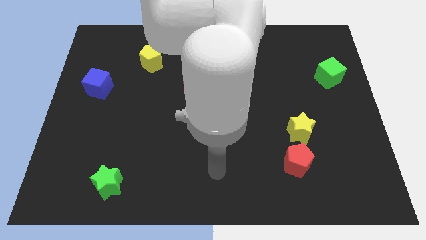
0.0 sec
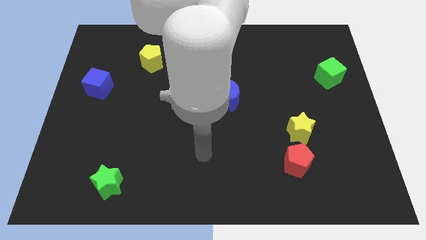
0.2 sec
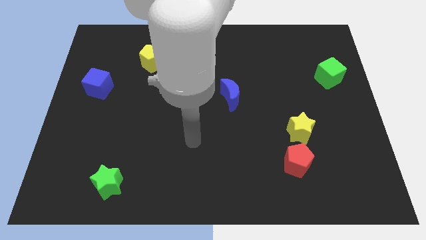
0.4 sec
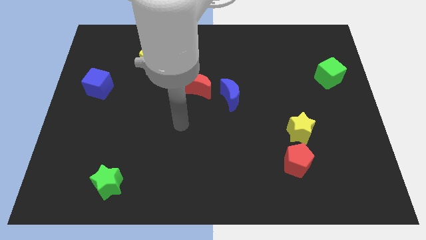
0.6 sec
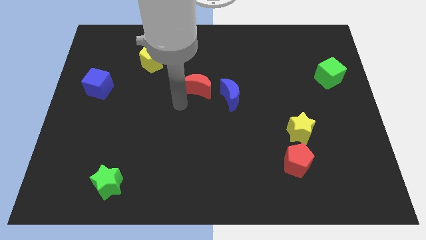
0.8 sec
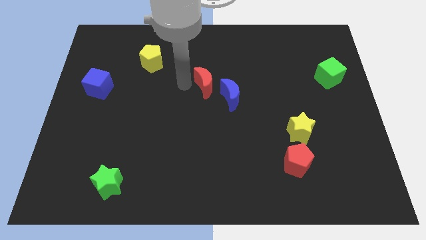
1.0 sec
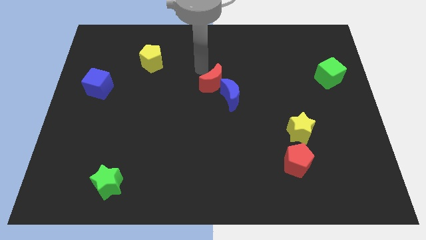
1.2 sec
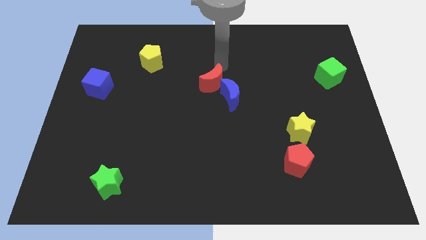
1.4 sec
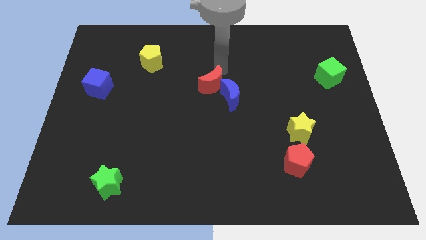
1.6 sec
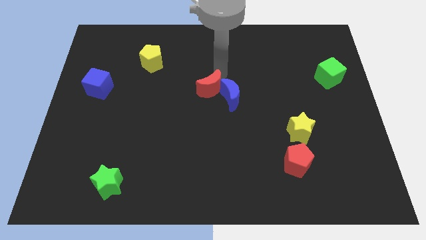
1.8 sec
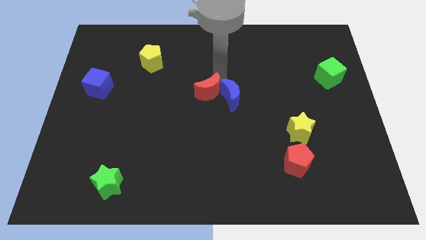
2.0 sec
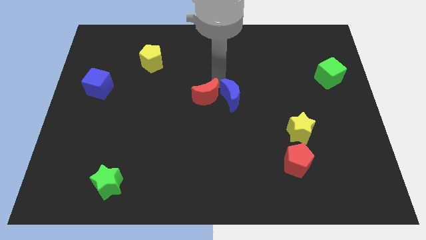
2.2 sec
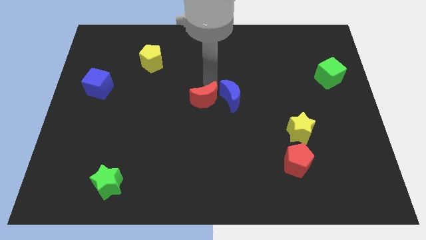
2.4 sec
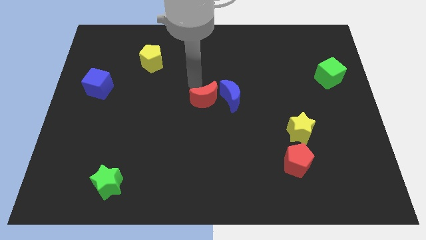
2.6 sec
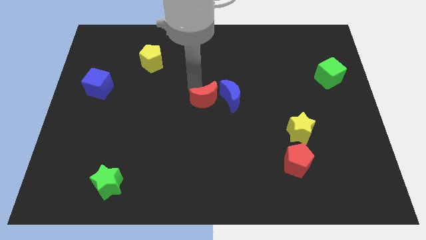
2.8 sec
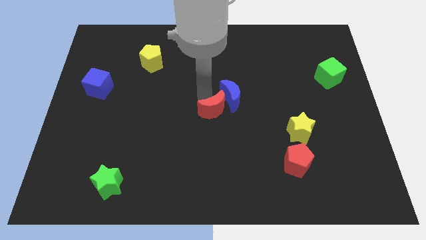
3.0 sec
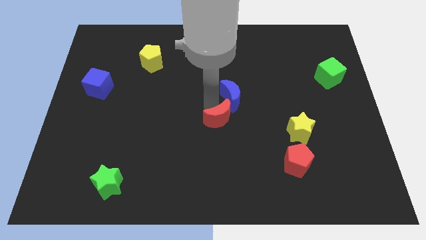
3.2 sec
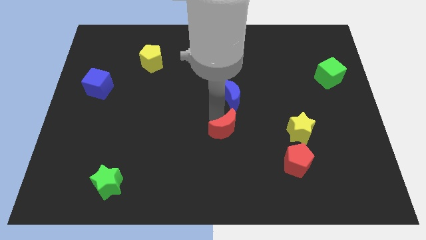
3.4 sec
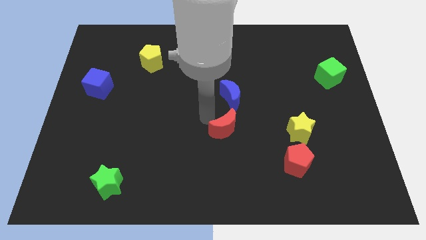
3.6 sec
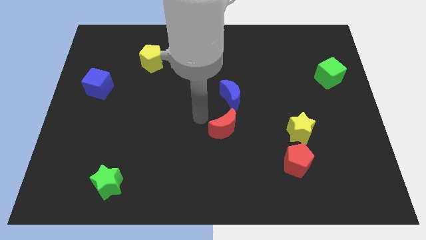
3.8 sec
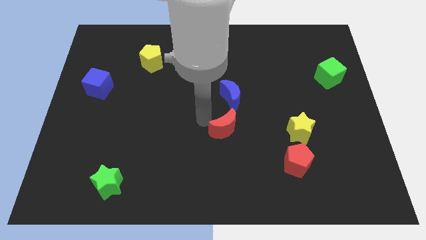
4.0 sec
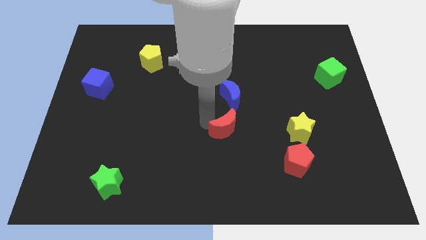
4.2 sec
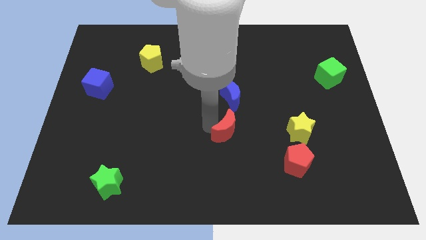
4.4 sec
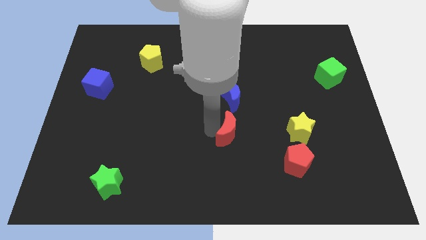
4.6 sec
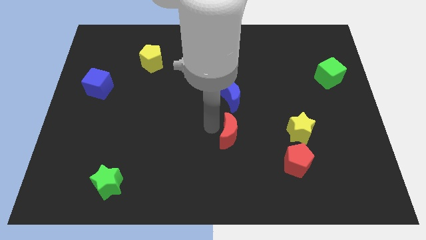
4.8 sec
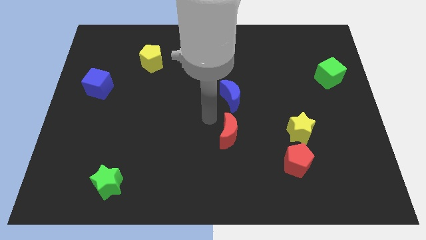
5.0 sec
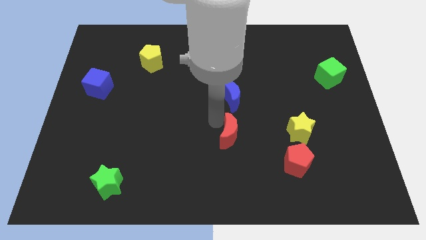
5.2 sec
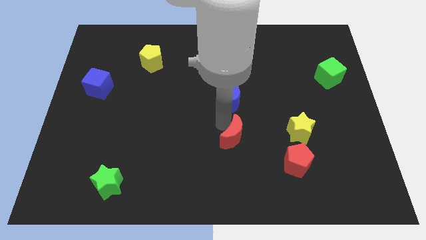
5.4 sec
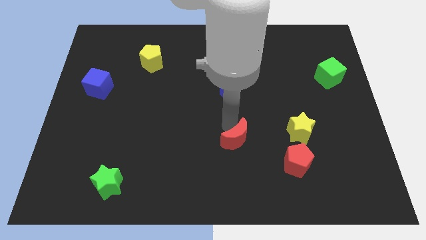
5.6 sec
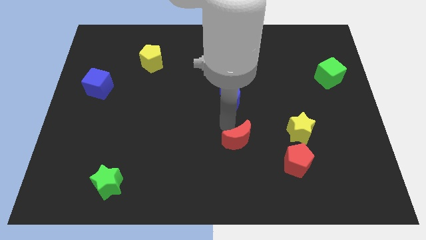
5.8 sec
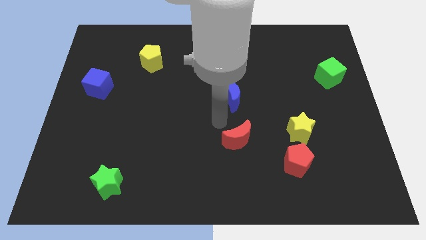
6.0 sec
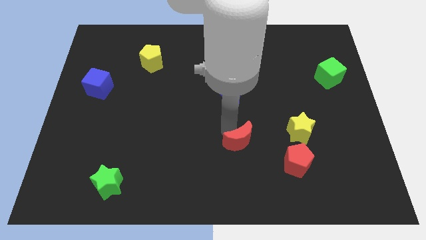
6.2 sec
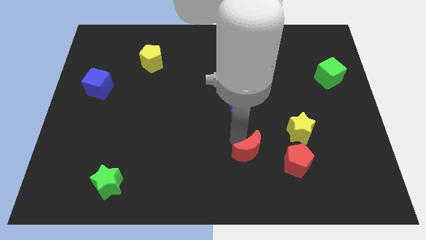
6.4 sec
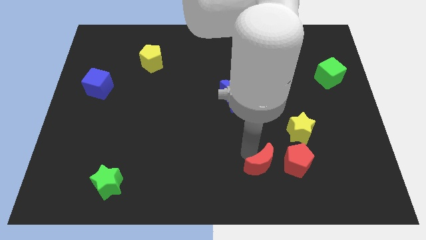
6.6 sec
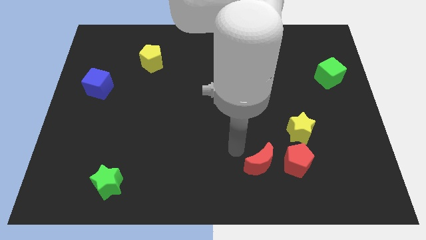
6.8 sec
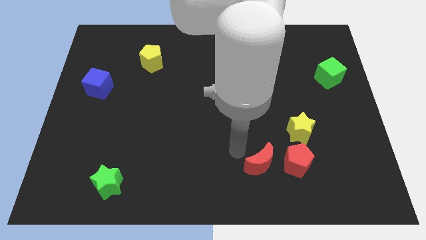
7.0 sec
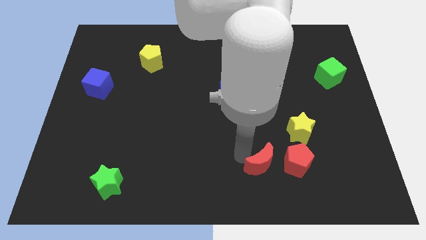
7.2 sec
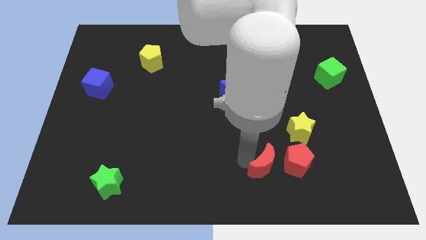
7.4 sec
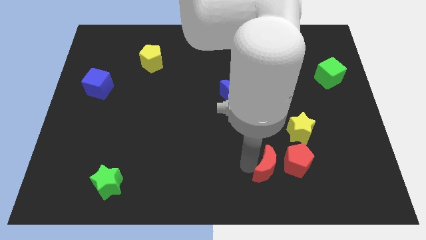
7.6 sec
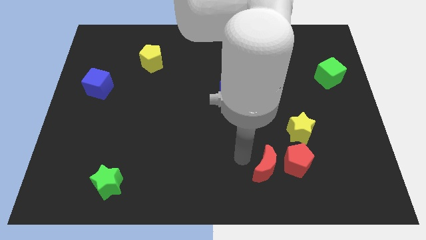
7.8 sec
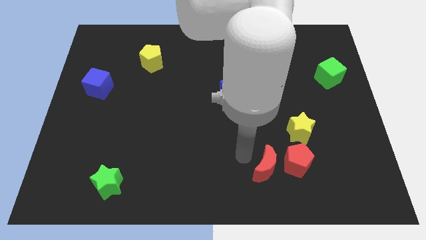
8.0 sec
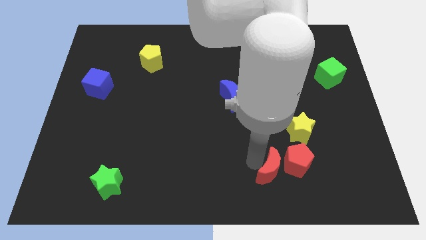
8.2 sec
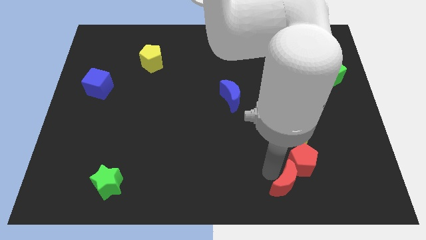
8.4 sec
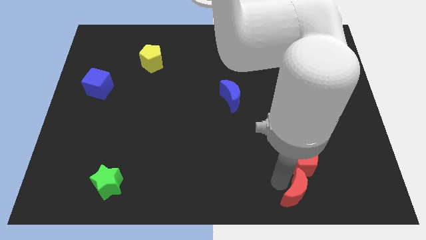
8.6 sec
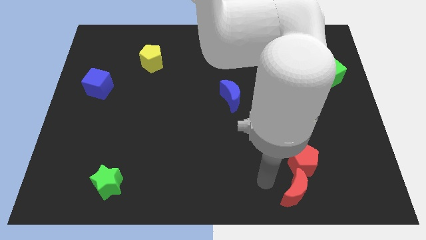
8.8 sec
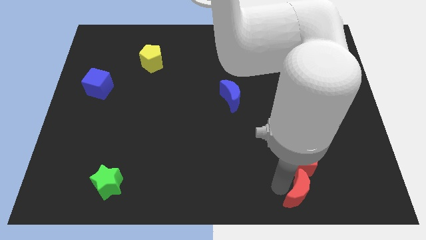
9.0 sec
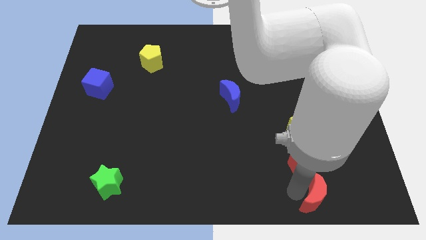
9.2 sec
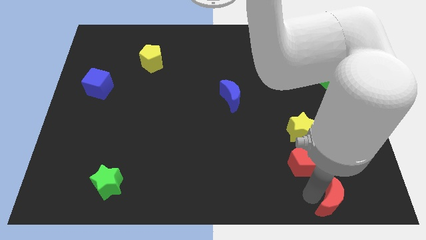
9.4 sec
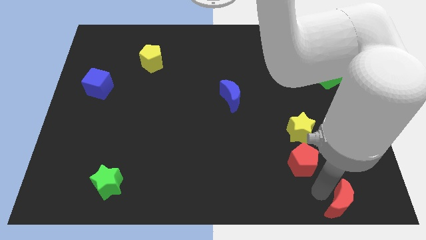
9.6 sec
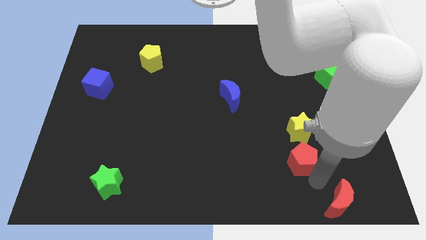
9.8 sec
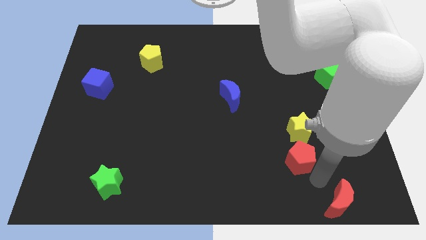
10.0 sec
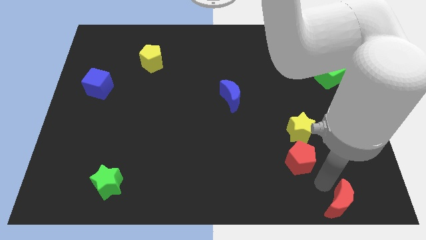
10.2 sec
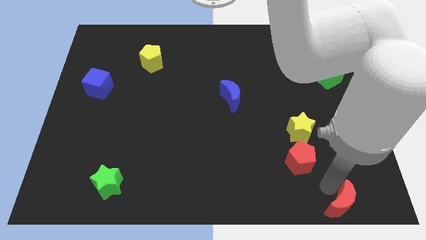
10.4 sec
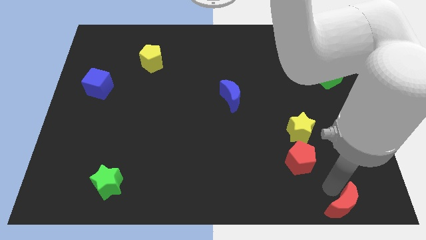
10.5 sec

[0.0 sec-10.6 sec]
move the red moon to the bottom right of the board

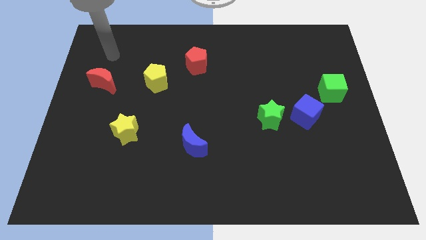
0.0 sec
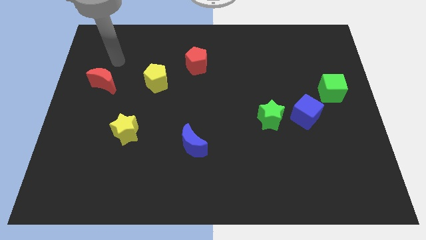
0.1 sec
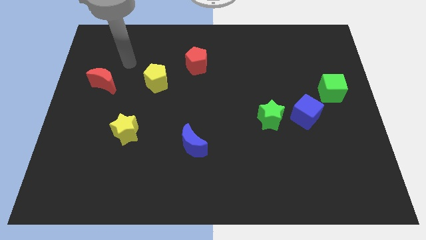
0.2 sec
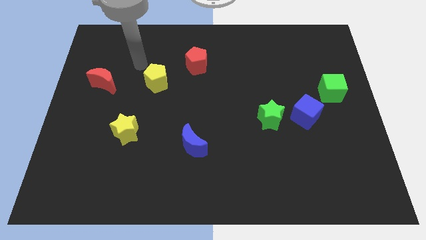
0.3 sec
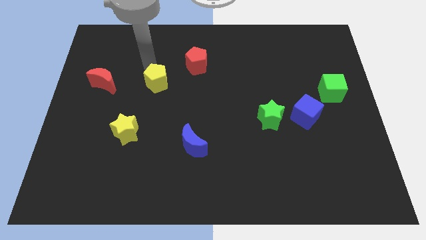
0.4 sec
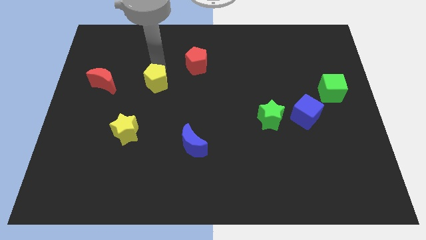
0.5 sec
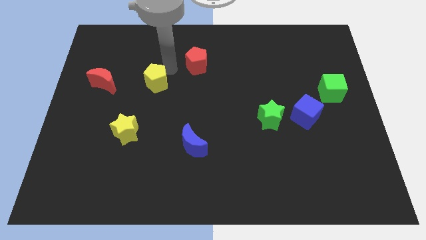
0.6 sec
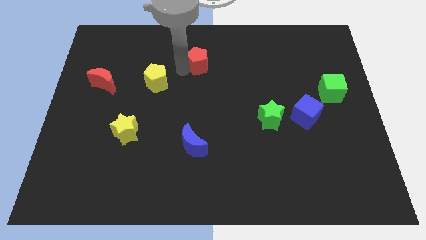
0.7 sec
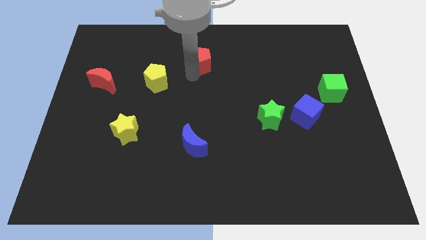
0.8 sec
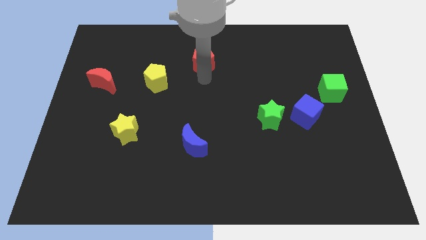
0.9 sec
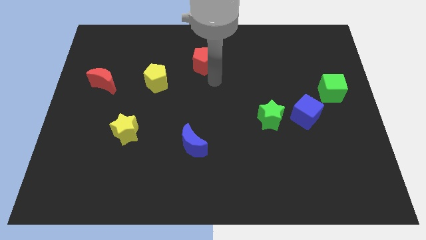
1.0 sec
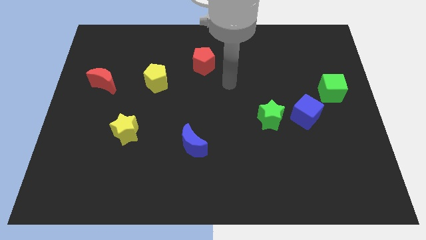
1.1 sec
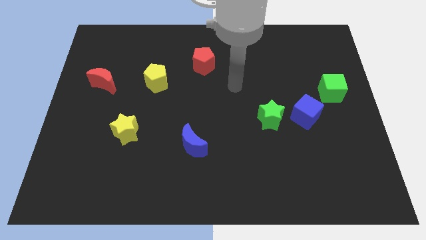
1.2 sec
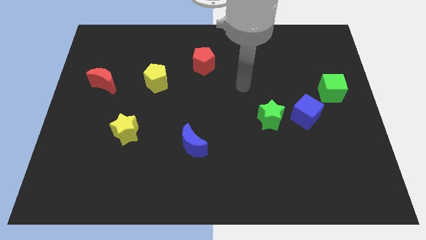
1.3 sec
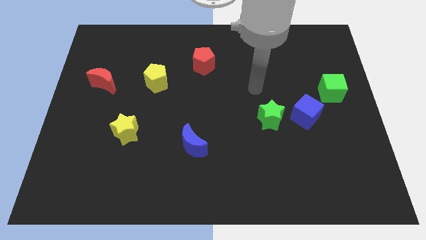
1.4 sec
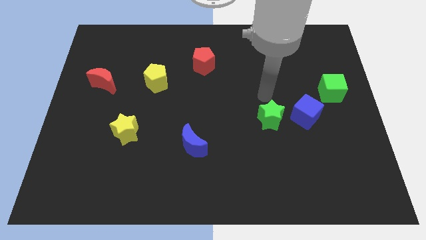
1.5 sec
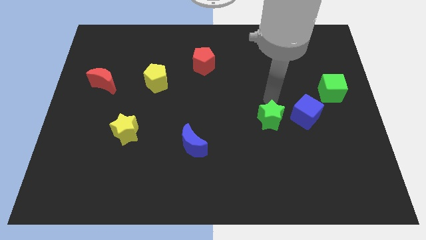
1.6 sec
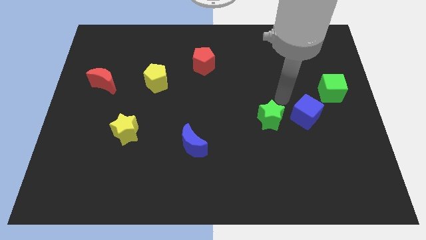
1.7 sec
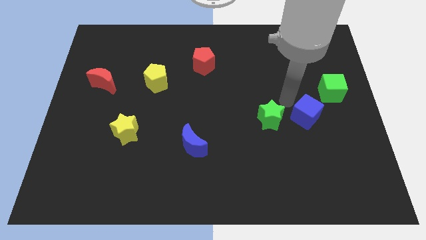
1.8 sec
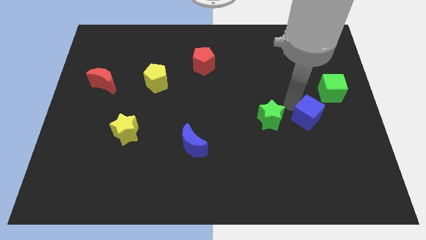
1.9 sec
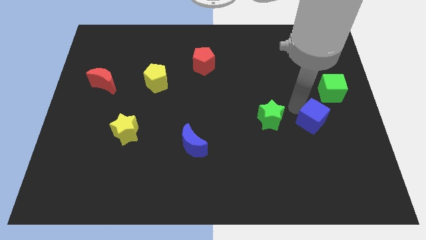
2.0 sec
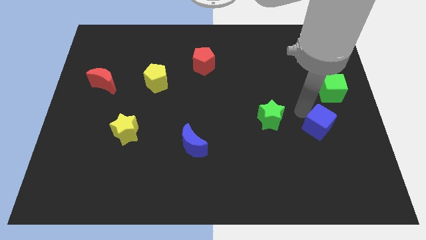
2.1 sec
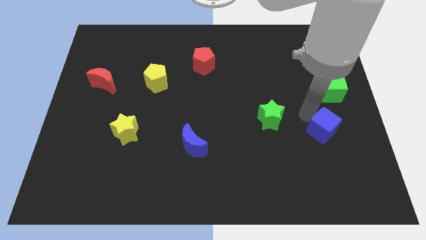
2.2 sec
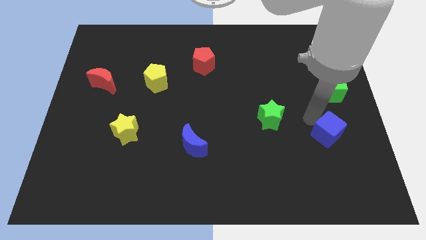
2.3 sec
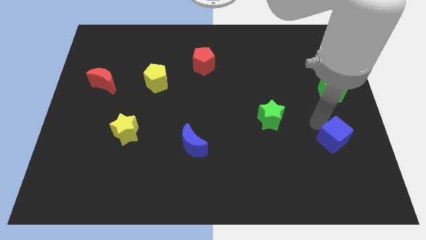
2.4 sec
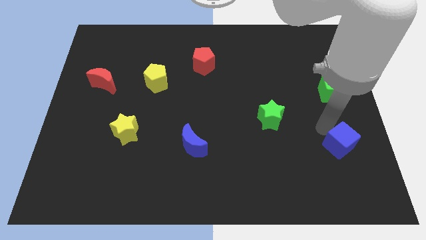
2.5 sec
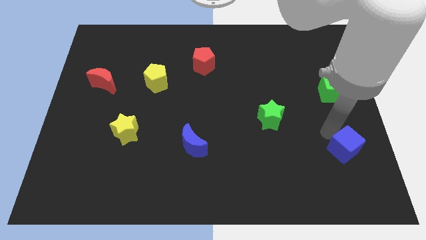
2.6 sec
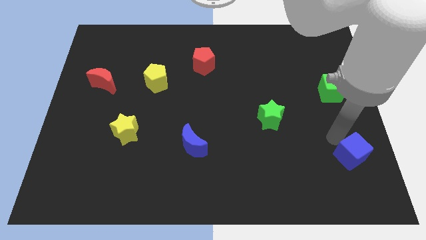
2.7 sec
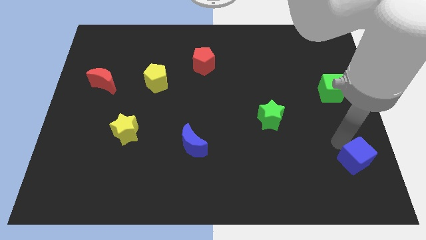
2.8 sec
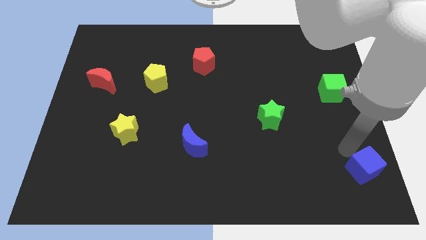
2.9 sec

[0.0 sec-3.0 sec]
move the blue cube to the lower right corner
